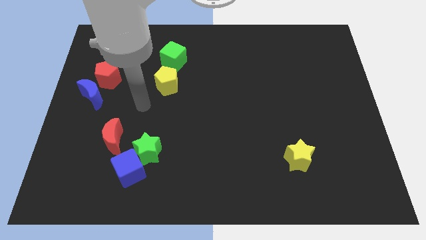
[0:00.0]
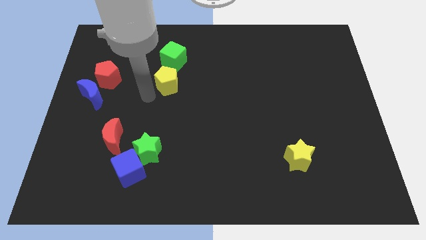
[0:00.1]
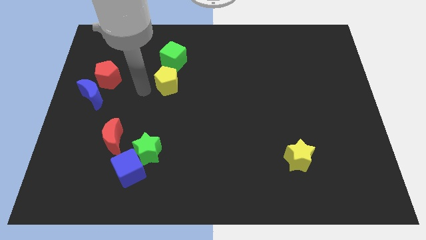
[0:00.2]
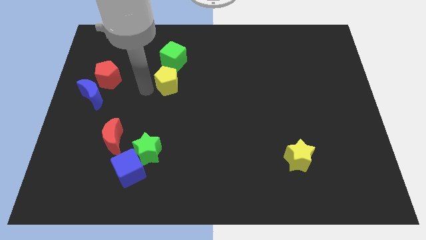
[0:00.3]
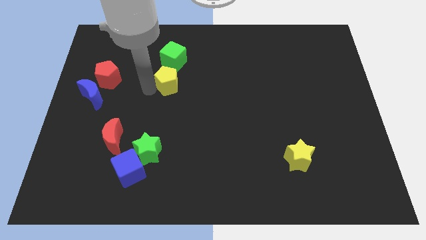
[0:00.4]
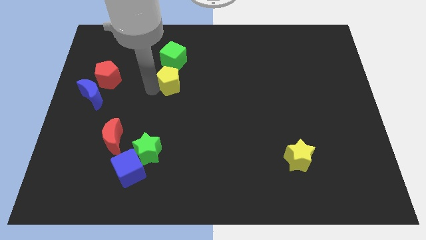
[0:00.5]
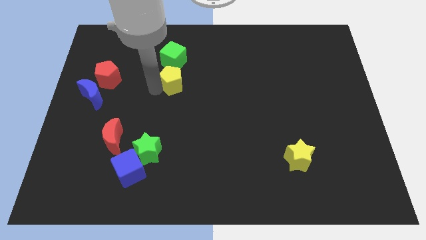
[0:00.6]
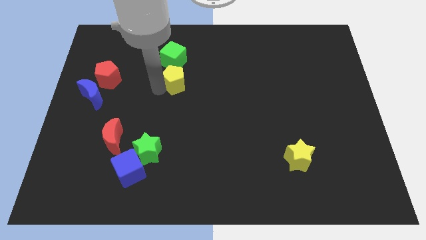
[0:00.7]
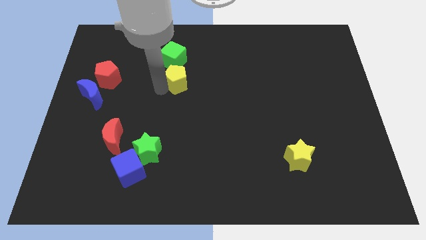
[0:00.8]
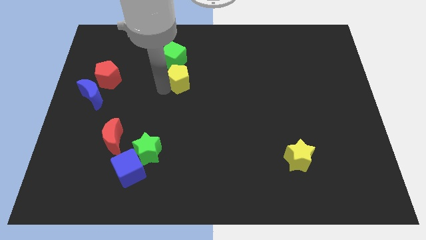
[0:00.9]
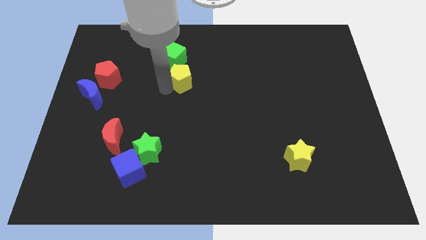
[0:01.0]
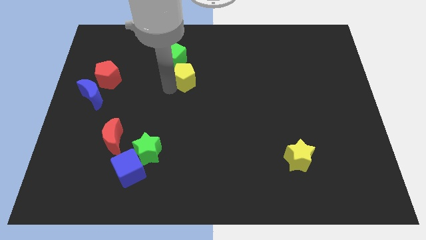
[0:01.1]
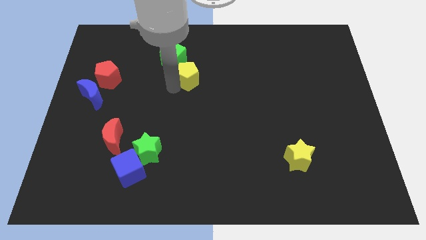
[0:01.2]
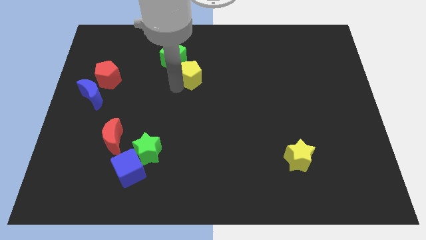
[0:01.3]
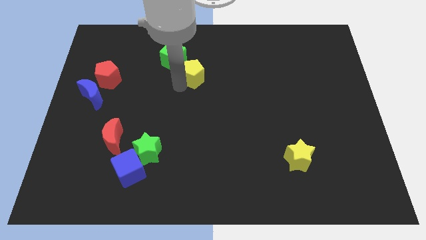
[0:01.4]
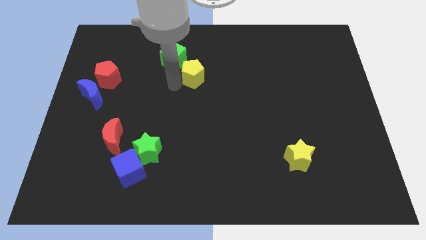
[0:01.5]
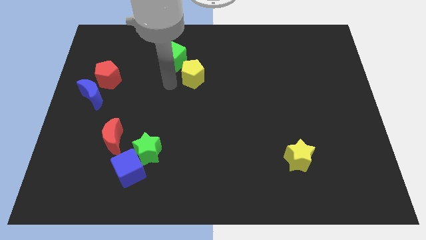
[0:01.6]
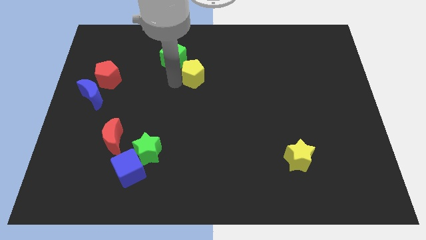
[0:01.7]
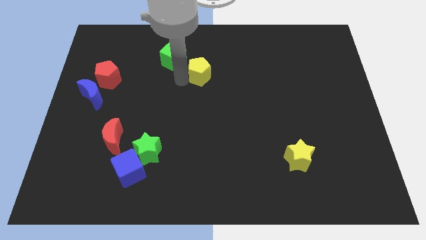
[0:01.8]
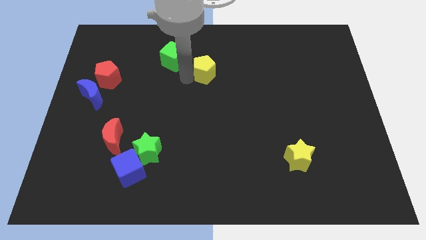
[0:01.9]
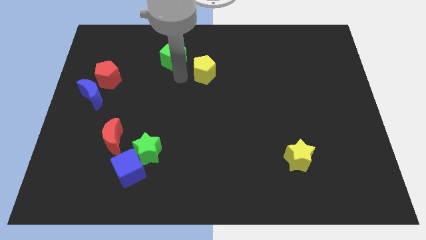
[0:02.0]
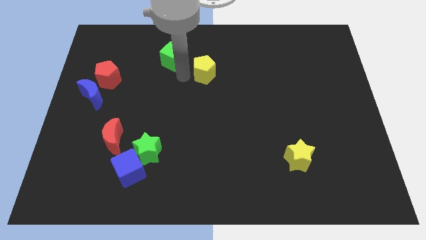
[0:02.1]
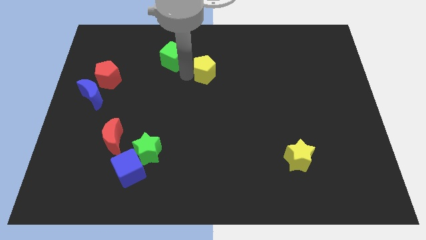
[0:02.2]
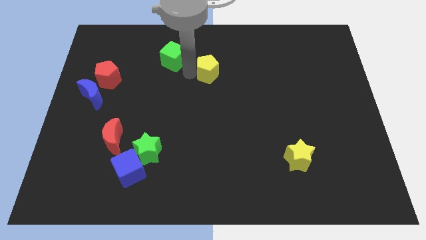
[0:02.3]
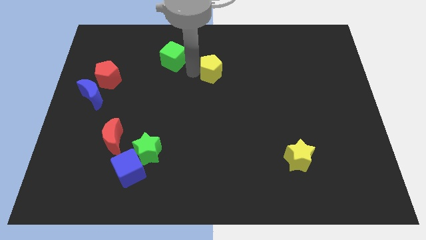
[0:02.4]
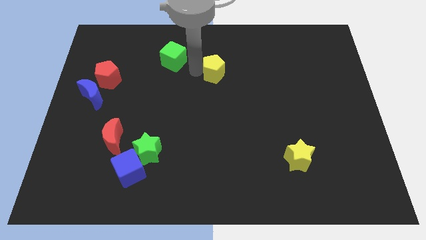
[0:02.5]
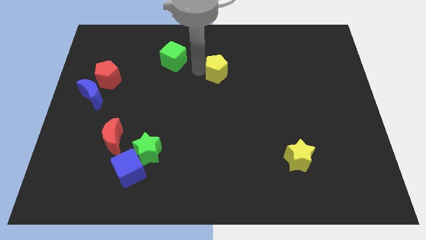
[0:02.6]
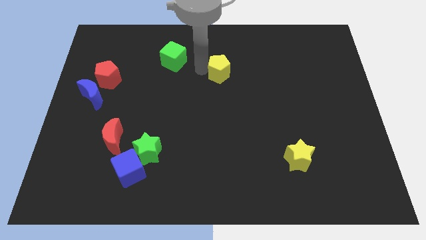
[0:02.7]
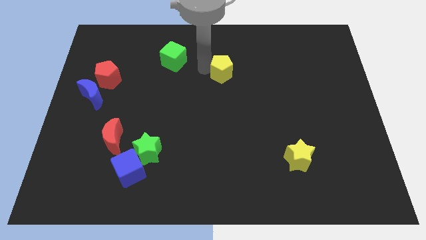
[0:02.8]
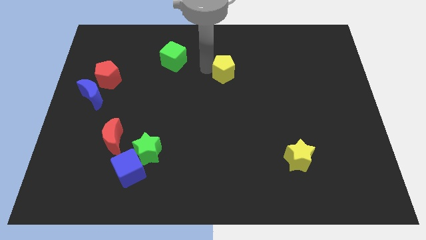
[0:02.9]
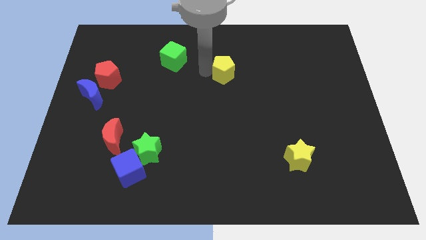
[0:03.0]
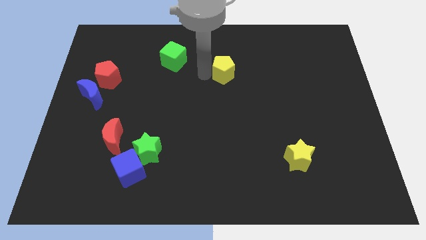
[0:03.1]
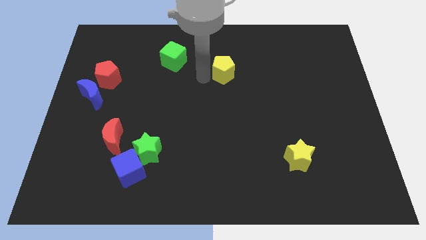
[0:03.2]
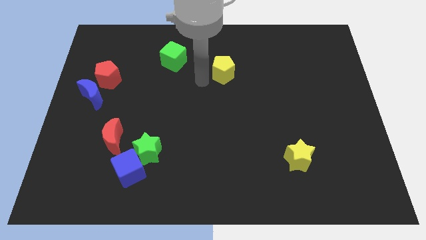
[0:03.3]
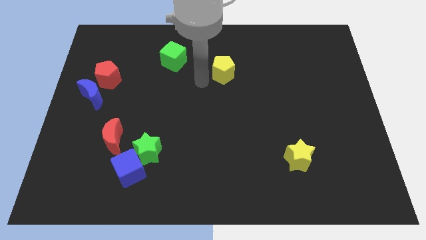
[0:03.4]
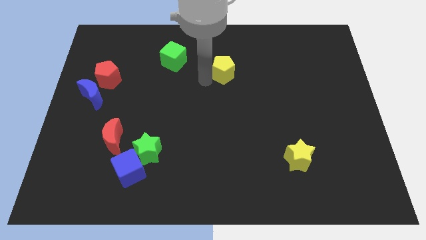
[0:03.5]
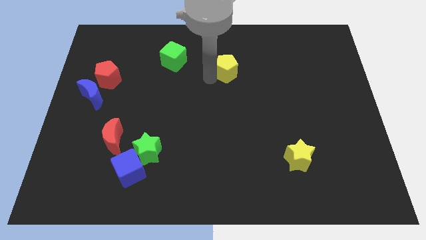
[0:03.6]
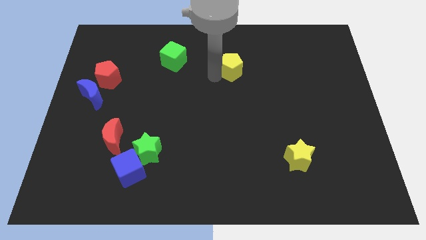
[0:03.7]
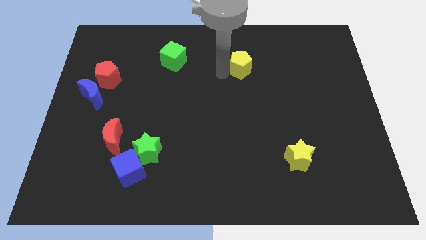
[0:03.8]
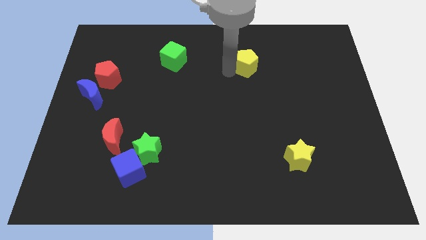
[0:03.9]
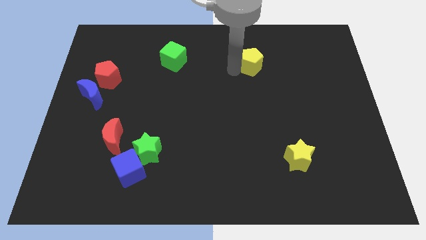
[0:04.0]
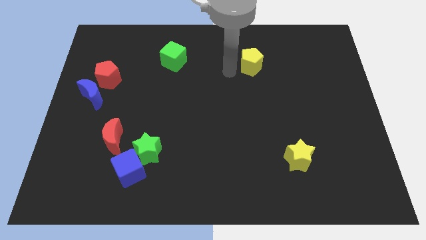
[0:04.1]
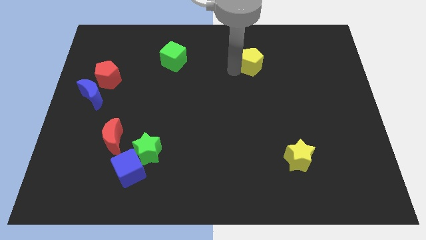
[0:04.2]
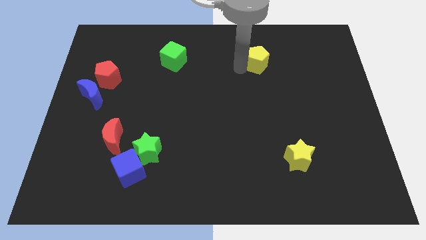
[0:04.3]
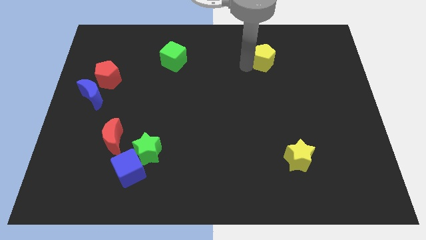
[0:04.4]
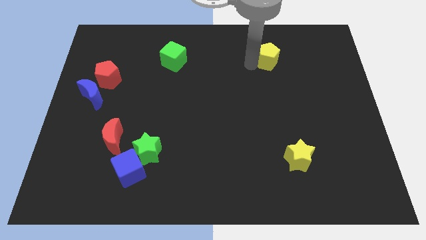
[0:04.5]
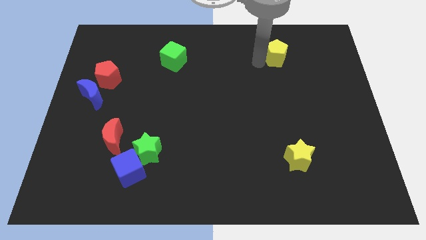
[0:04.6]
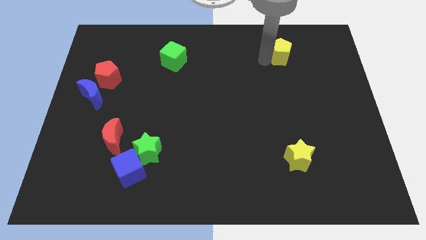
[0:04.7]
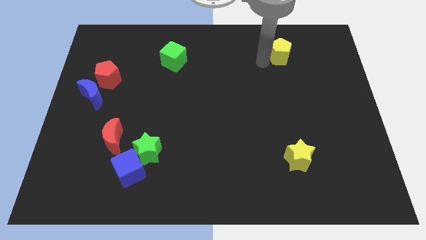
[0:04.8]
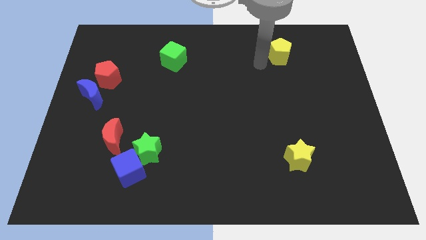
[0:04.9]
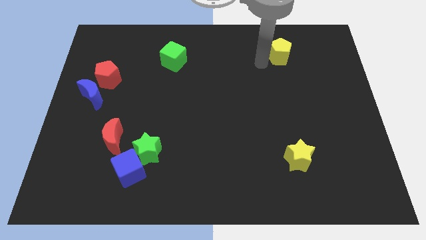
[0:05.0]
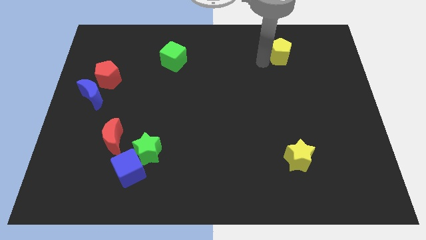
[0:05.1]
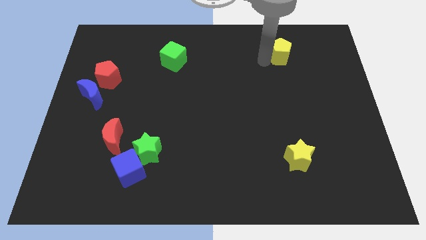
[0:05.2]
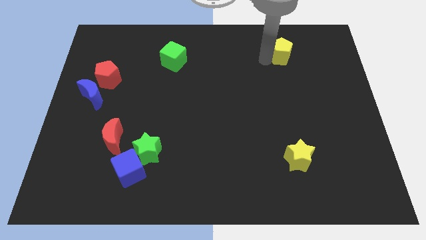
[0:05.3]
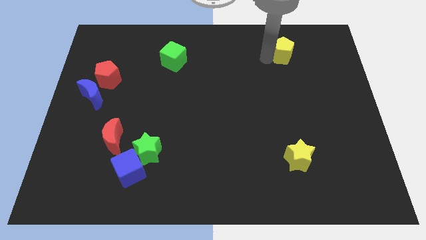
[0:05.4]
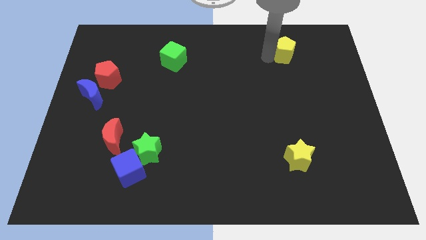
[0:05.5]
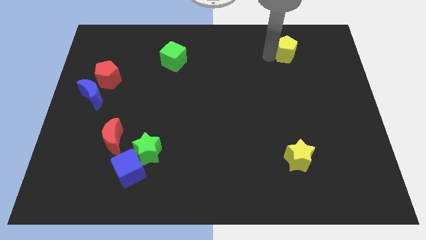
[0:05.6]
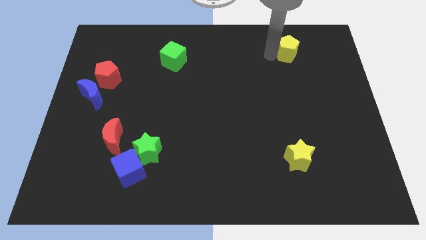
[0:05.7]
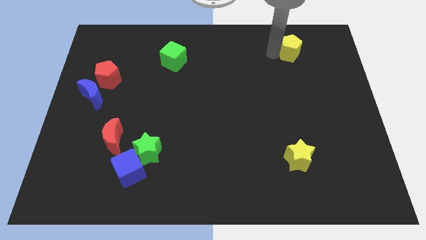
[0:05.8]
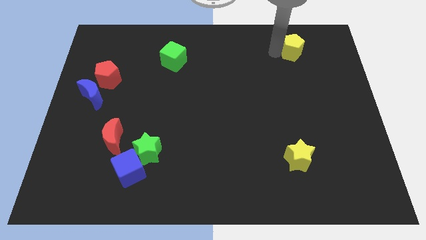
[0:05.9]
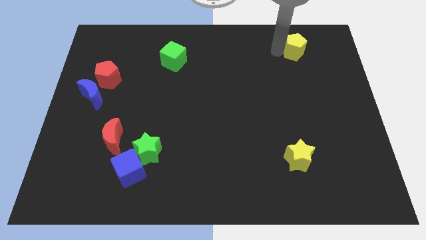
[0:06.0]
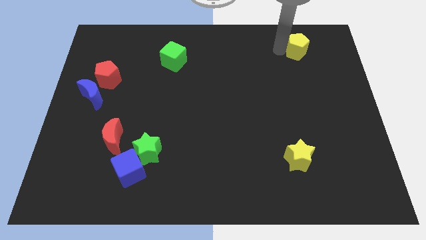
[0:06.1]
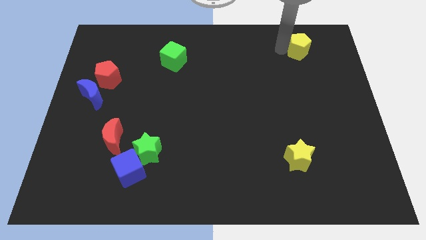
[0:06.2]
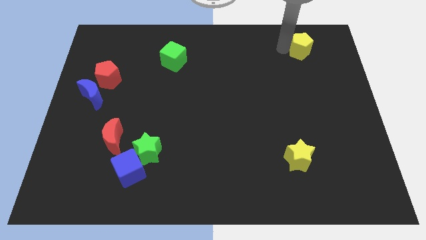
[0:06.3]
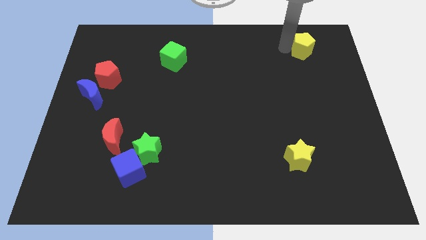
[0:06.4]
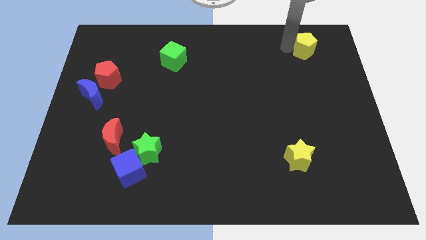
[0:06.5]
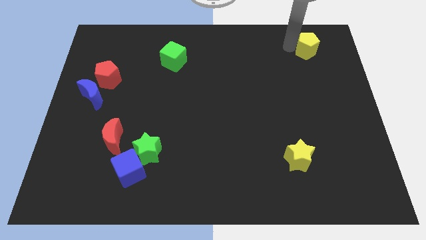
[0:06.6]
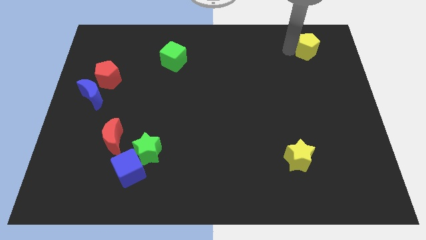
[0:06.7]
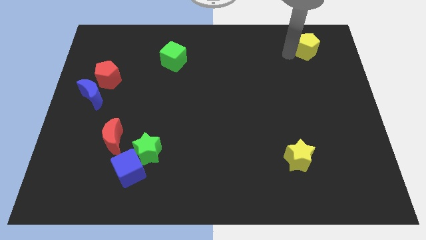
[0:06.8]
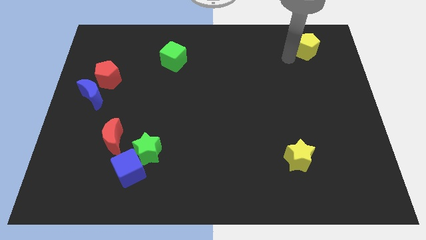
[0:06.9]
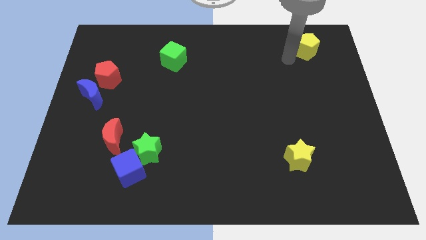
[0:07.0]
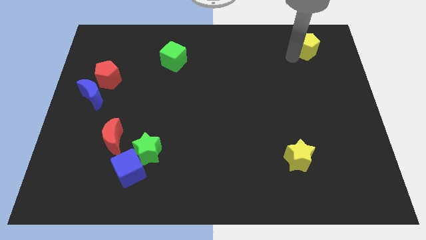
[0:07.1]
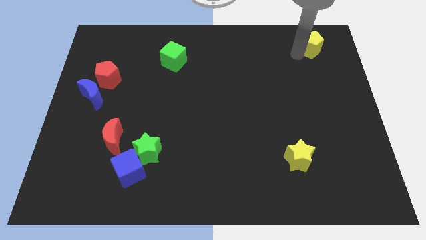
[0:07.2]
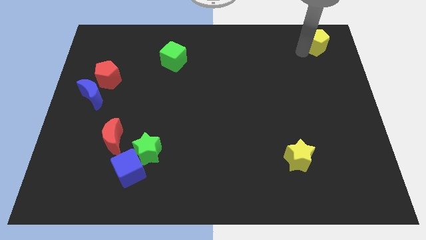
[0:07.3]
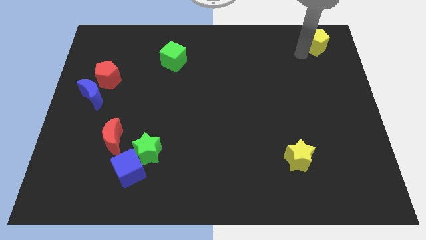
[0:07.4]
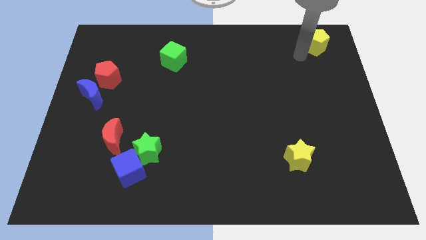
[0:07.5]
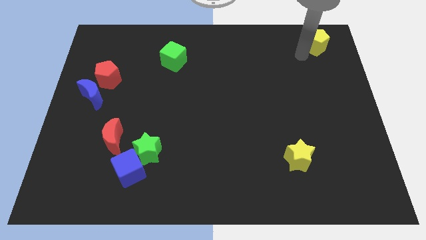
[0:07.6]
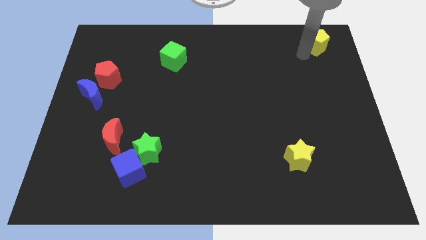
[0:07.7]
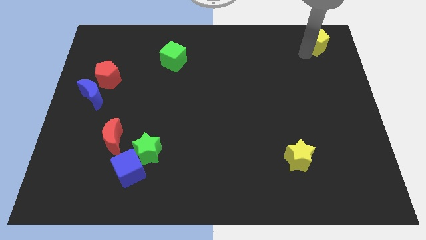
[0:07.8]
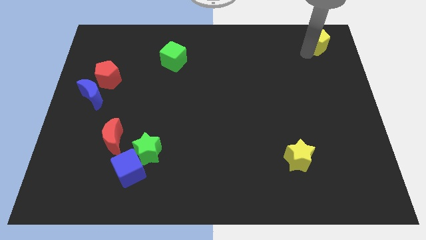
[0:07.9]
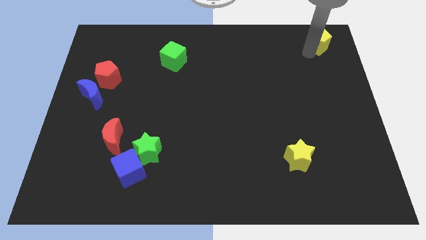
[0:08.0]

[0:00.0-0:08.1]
move the yellow pentagon to the top right
